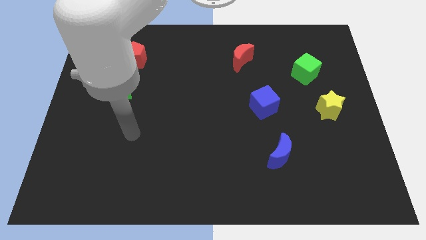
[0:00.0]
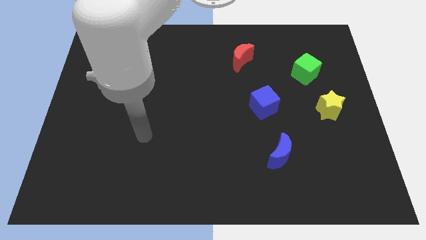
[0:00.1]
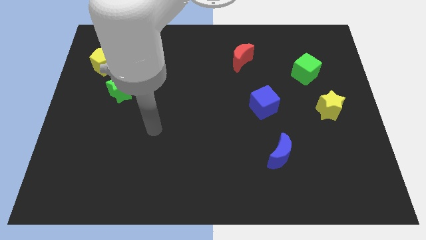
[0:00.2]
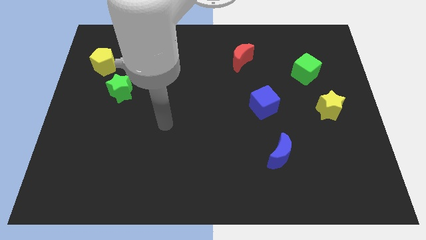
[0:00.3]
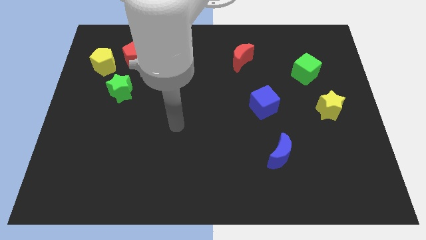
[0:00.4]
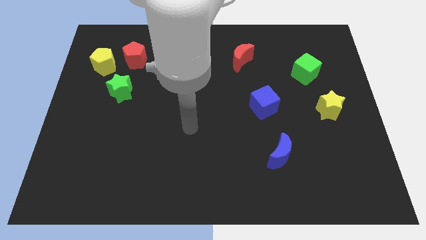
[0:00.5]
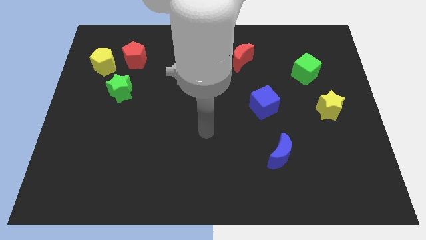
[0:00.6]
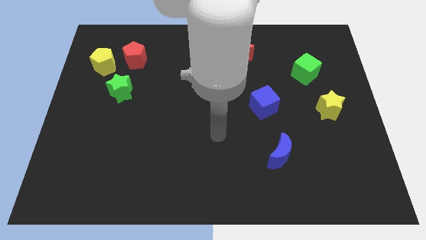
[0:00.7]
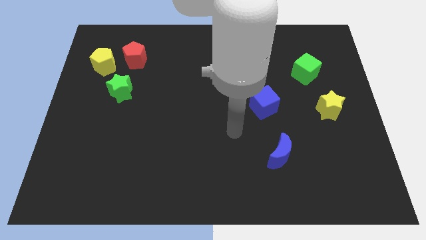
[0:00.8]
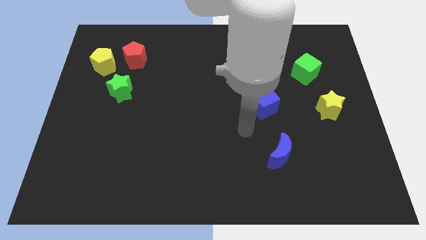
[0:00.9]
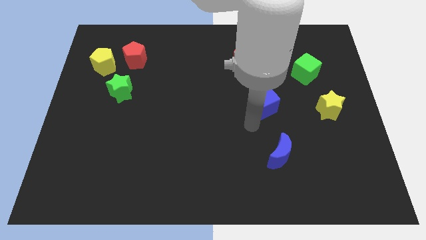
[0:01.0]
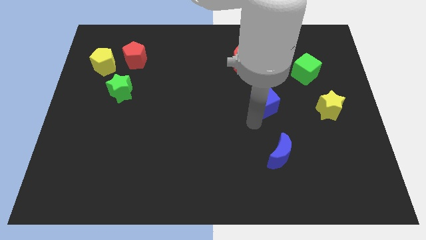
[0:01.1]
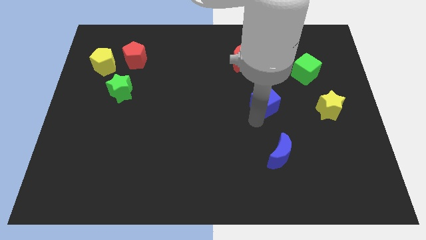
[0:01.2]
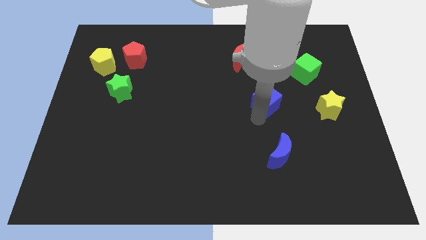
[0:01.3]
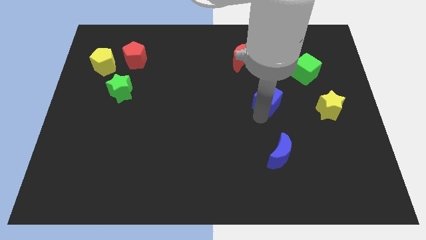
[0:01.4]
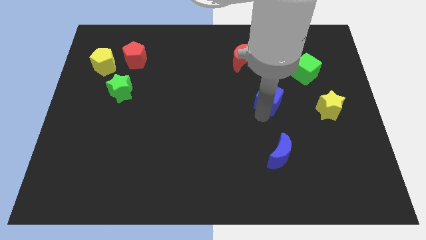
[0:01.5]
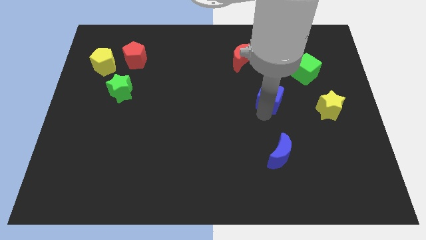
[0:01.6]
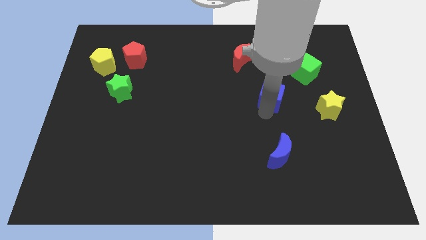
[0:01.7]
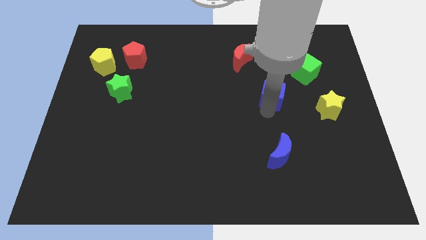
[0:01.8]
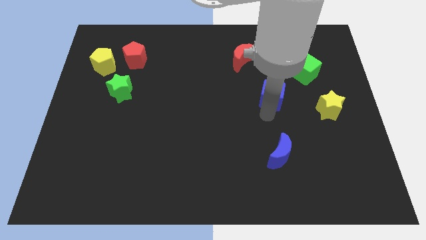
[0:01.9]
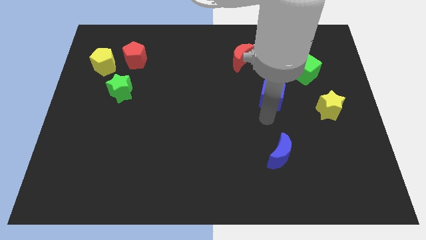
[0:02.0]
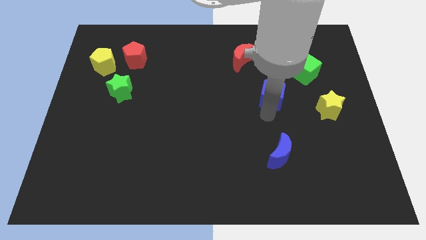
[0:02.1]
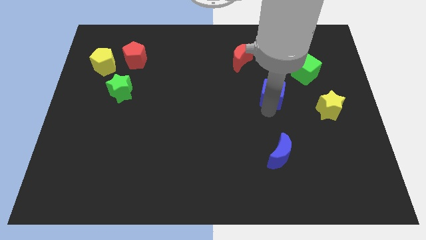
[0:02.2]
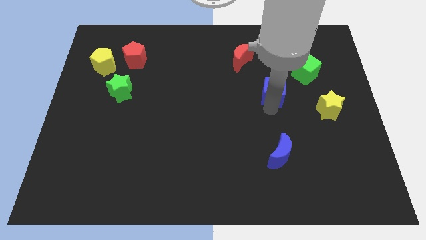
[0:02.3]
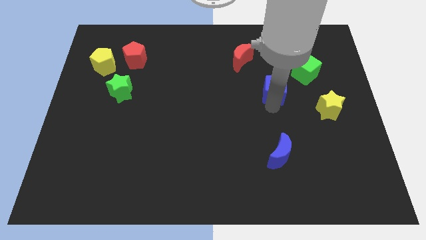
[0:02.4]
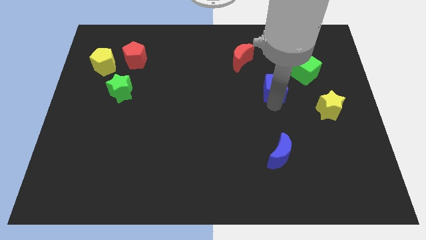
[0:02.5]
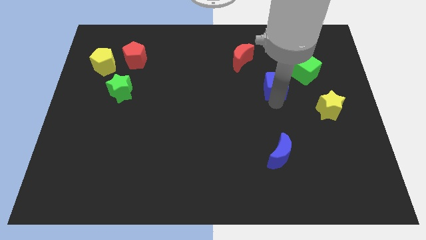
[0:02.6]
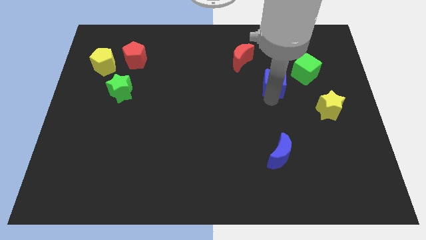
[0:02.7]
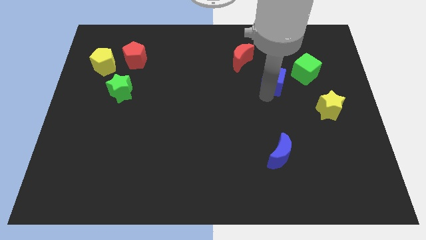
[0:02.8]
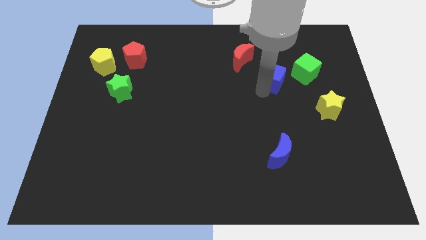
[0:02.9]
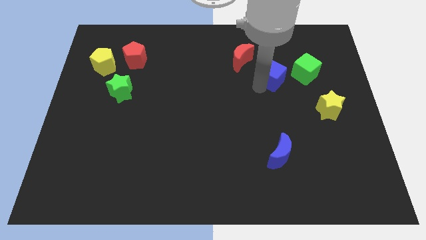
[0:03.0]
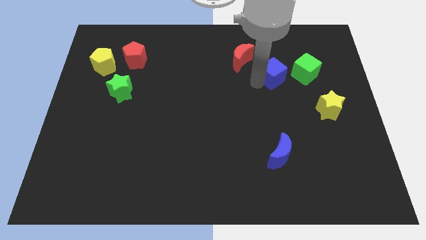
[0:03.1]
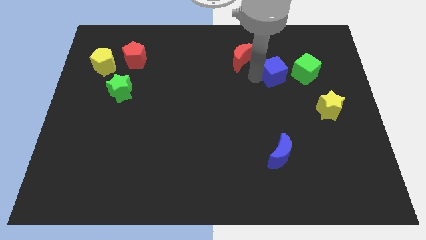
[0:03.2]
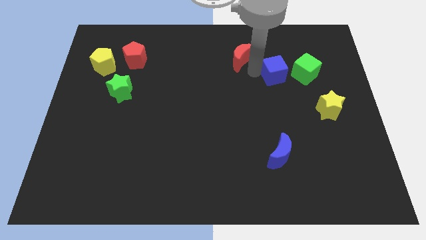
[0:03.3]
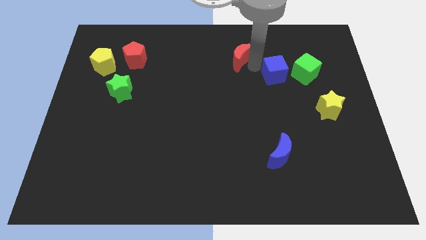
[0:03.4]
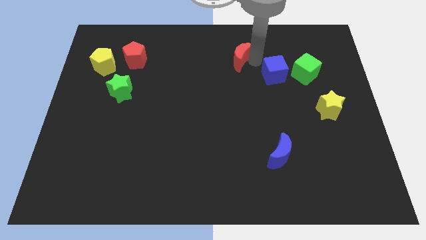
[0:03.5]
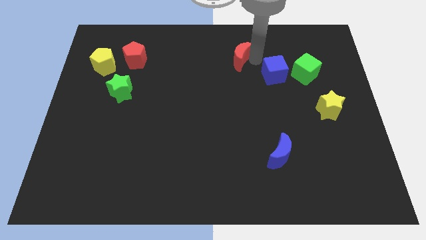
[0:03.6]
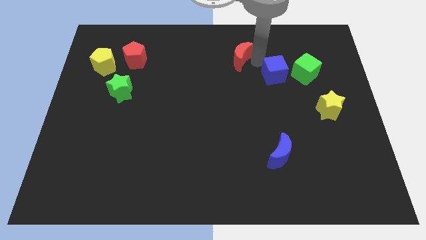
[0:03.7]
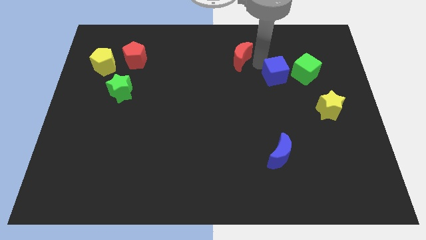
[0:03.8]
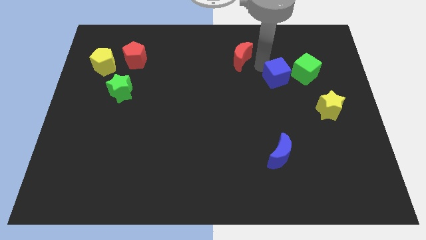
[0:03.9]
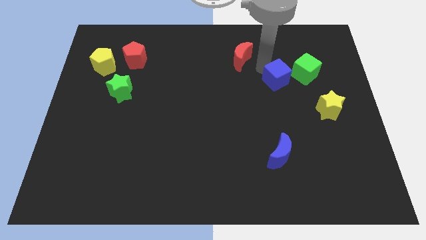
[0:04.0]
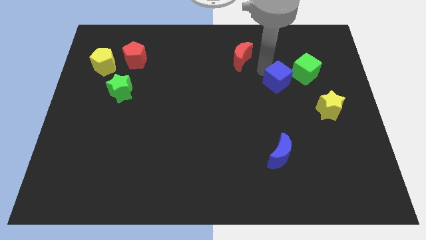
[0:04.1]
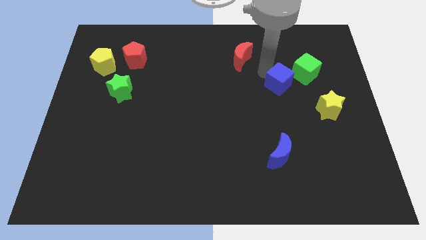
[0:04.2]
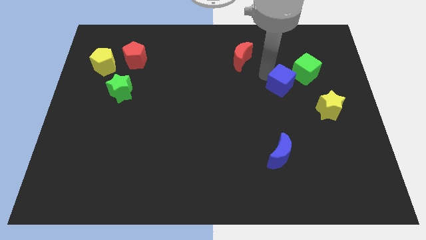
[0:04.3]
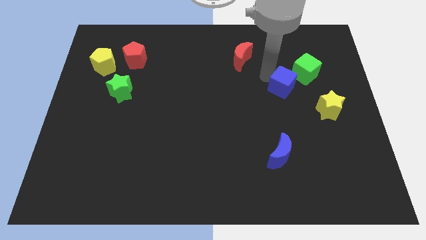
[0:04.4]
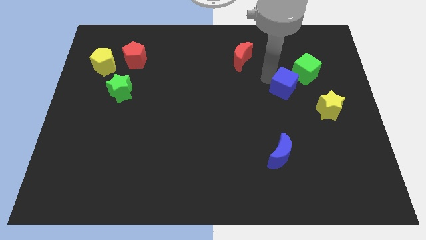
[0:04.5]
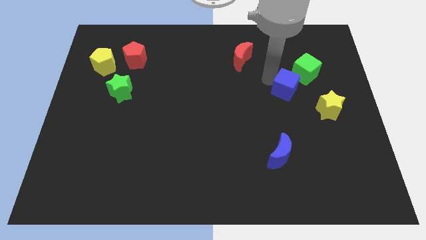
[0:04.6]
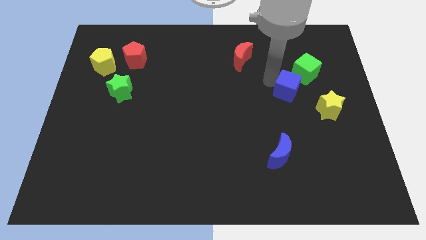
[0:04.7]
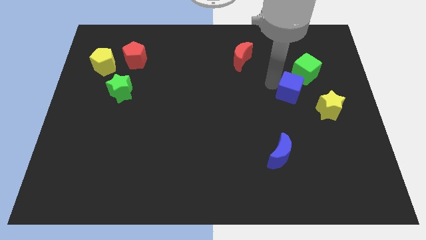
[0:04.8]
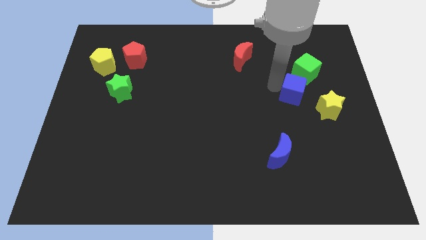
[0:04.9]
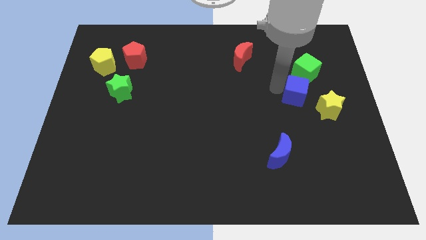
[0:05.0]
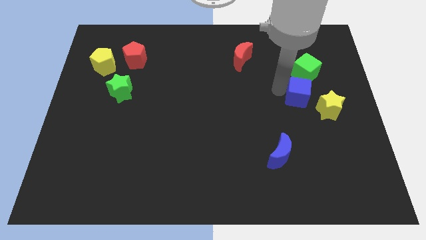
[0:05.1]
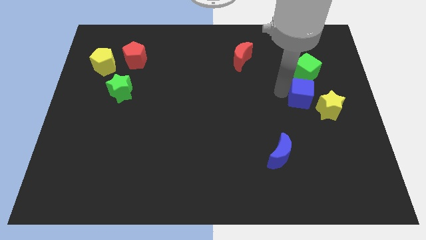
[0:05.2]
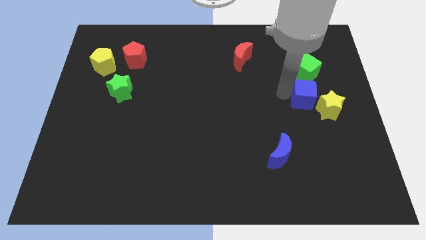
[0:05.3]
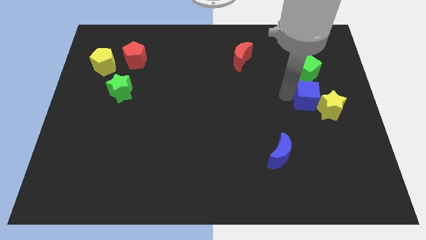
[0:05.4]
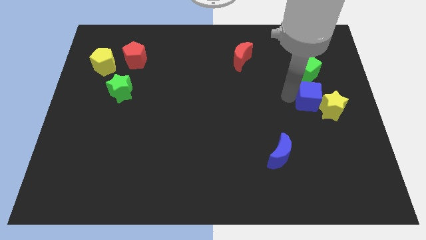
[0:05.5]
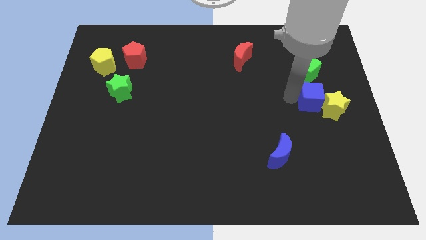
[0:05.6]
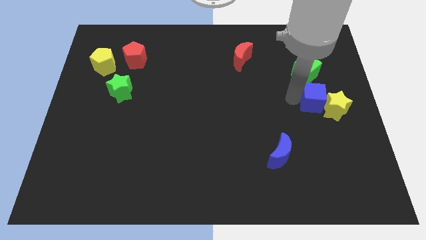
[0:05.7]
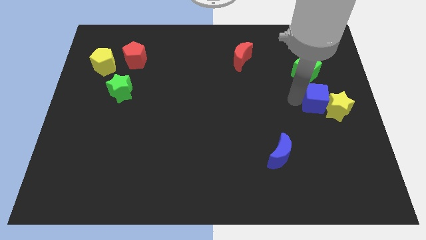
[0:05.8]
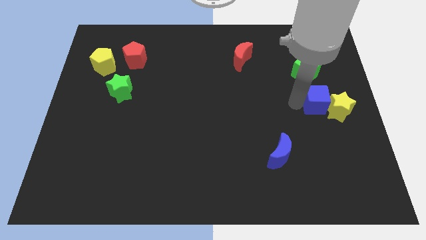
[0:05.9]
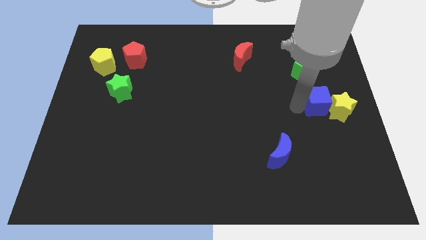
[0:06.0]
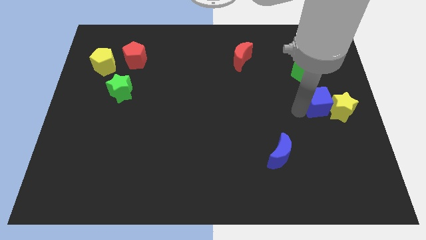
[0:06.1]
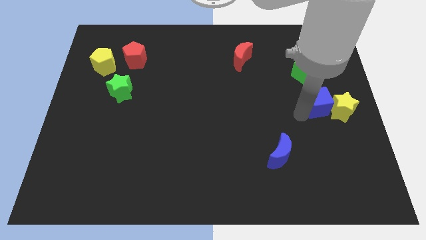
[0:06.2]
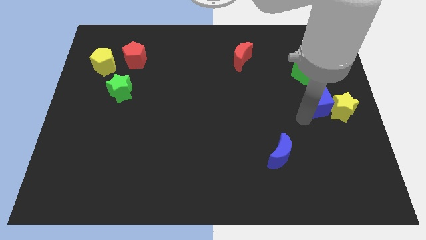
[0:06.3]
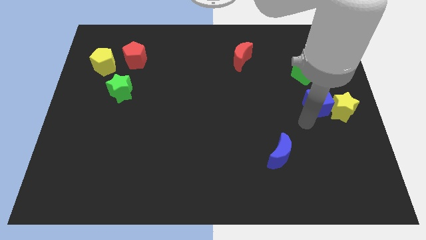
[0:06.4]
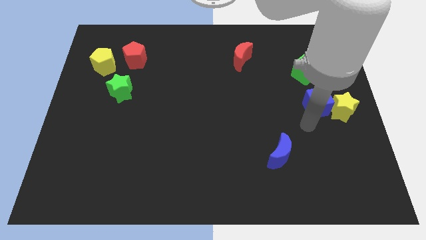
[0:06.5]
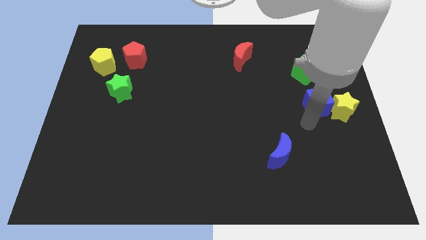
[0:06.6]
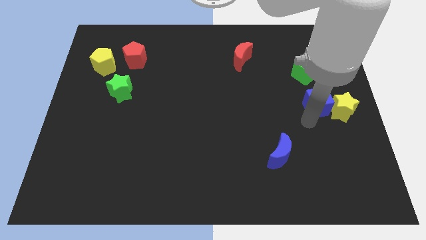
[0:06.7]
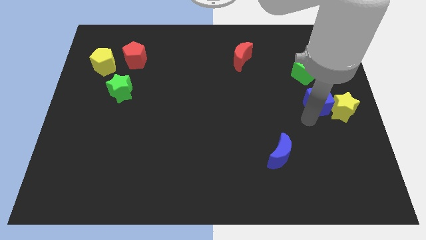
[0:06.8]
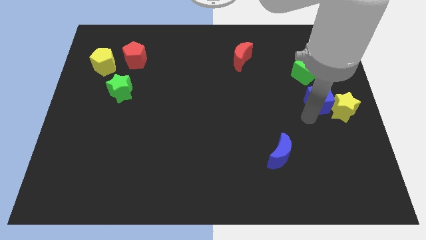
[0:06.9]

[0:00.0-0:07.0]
put the blue cube to the center right
